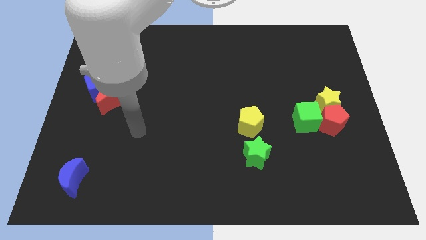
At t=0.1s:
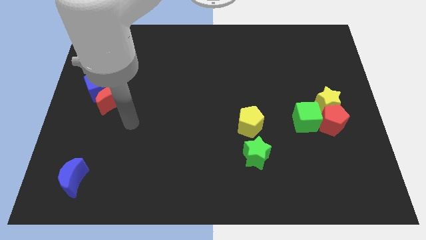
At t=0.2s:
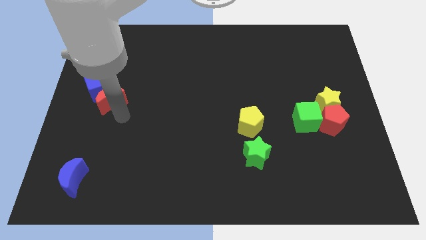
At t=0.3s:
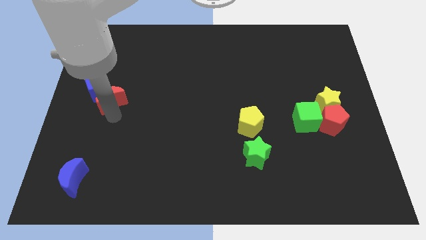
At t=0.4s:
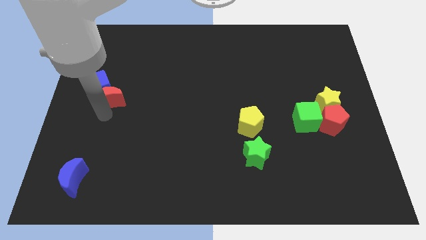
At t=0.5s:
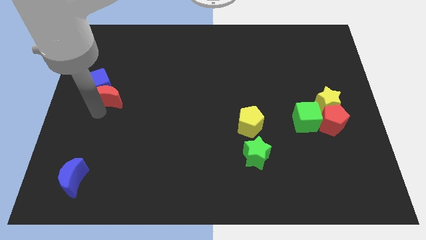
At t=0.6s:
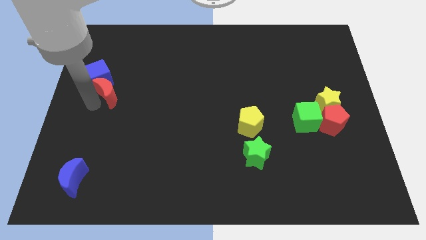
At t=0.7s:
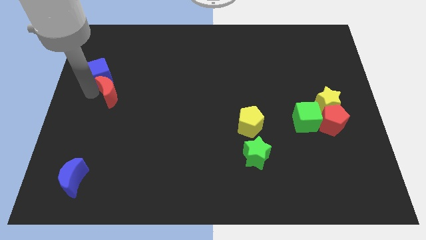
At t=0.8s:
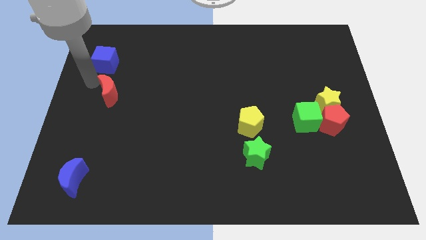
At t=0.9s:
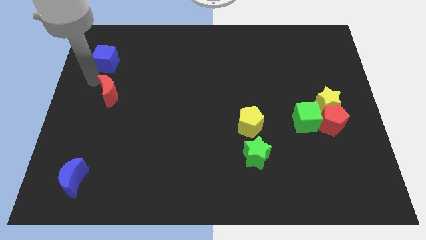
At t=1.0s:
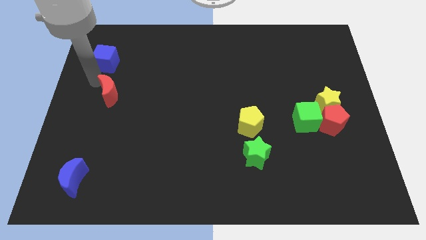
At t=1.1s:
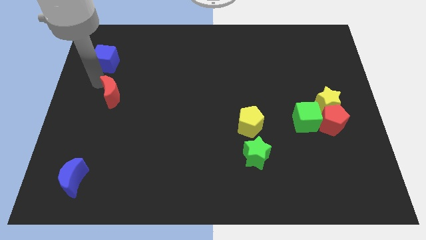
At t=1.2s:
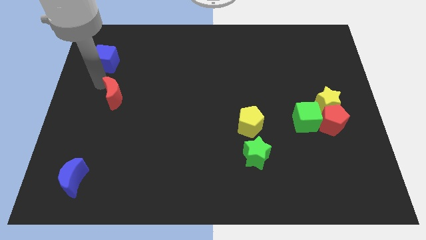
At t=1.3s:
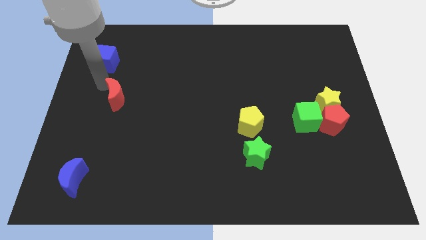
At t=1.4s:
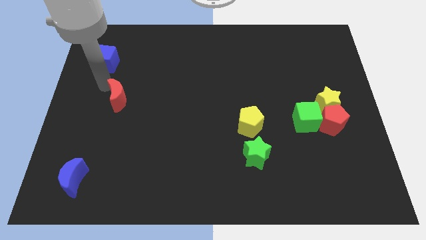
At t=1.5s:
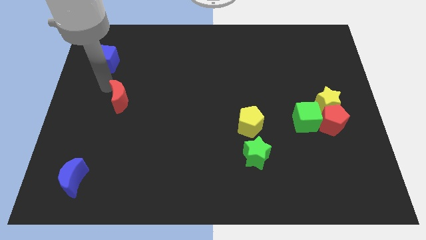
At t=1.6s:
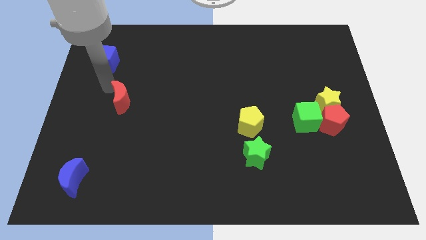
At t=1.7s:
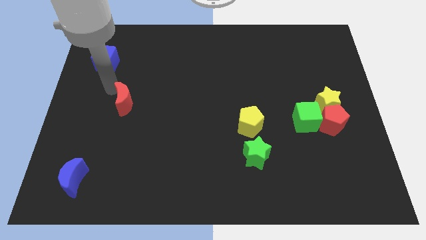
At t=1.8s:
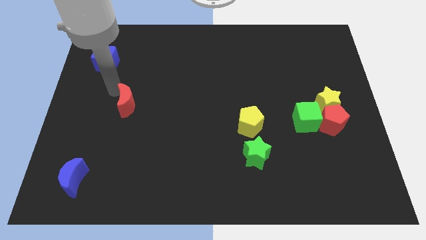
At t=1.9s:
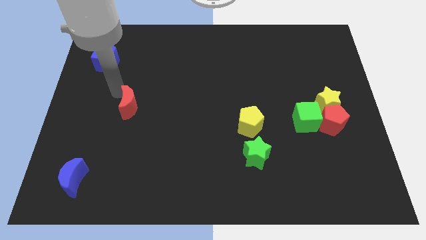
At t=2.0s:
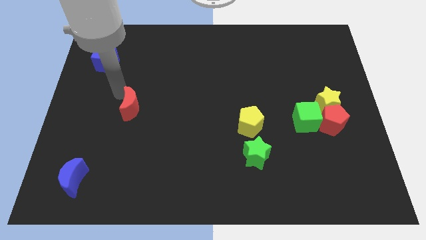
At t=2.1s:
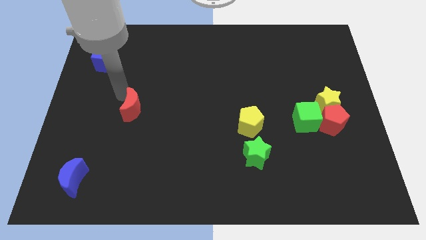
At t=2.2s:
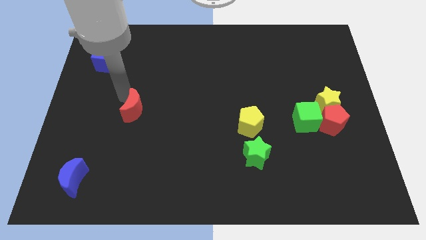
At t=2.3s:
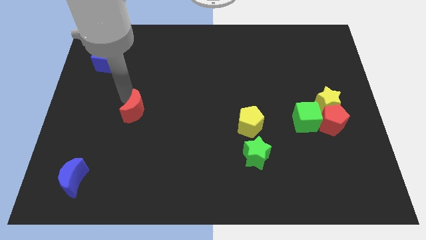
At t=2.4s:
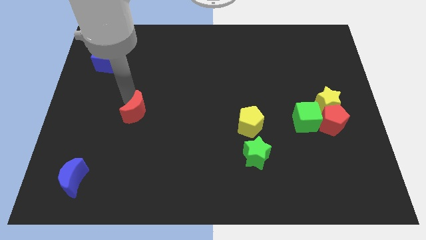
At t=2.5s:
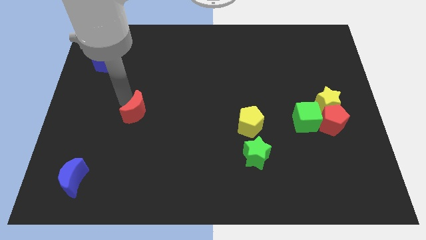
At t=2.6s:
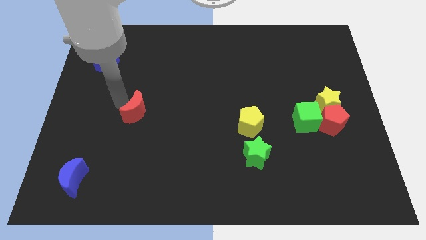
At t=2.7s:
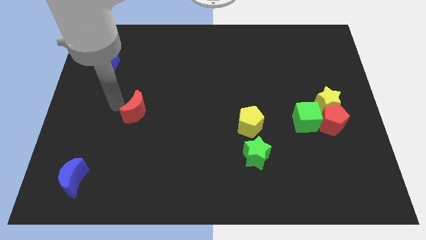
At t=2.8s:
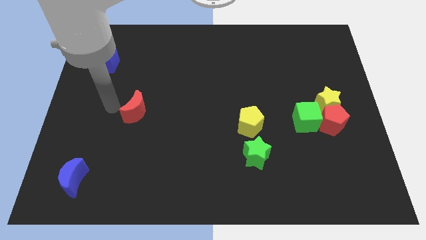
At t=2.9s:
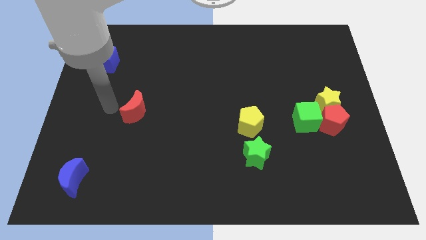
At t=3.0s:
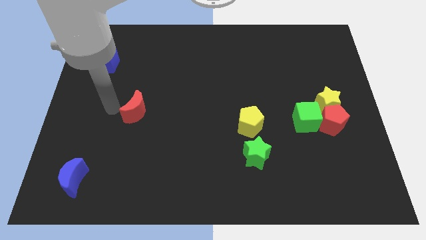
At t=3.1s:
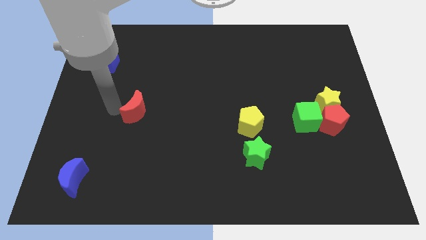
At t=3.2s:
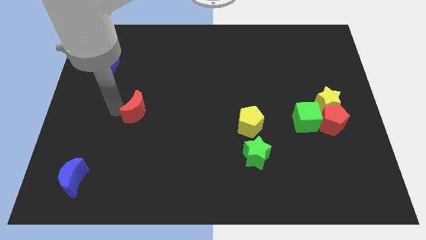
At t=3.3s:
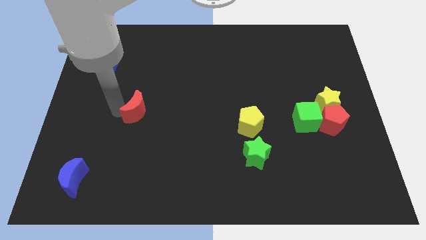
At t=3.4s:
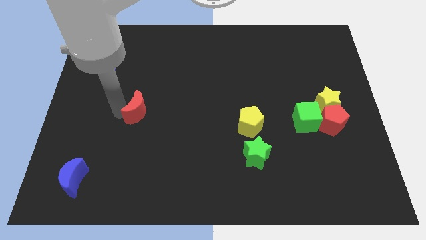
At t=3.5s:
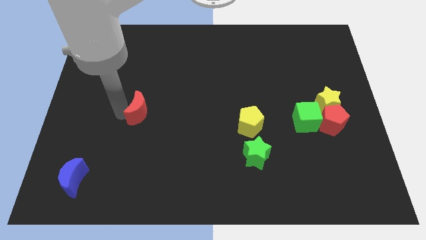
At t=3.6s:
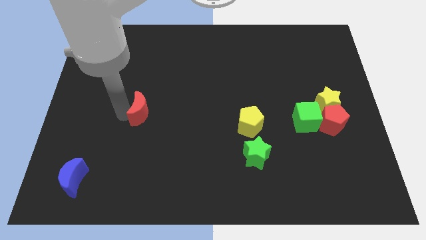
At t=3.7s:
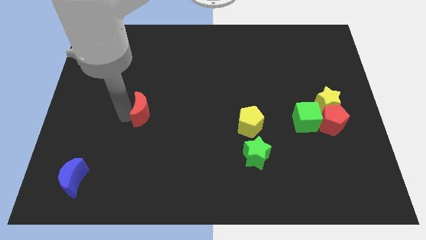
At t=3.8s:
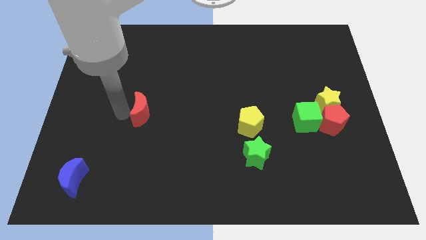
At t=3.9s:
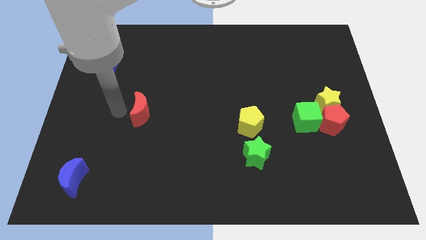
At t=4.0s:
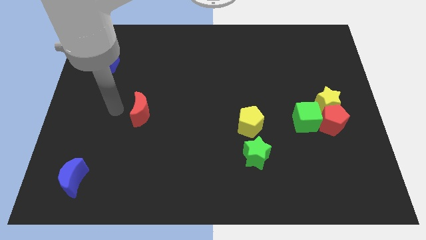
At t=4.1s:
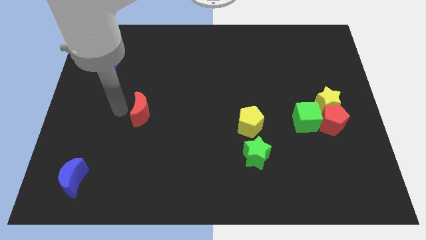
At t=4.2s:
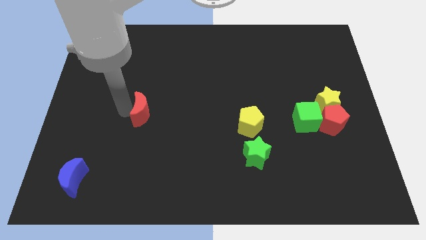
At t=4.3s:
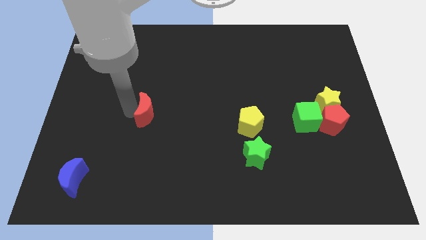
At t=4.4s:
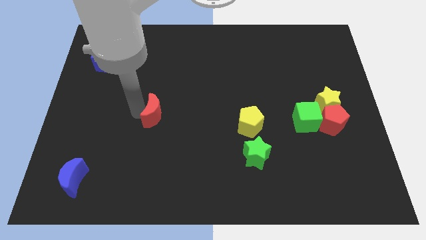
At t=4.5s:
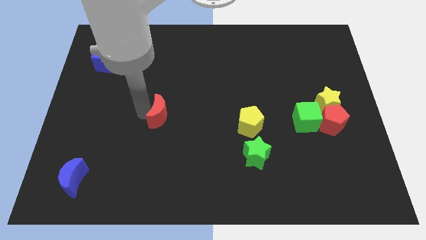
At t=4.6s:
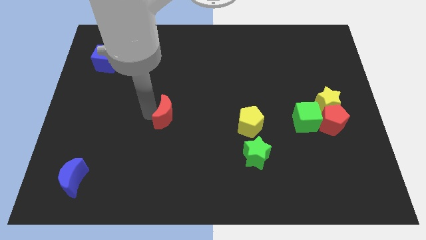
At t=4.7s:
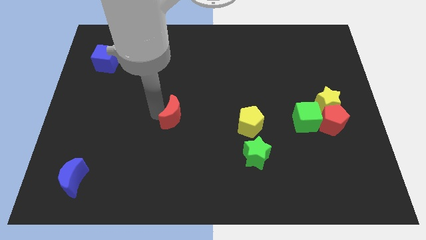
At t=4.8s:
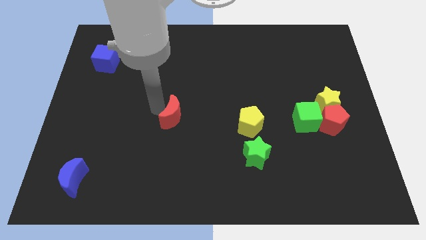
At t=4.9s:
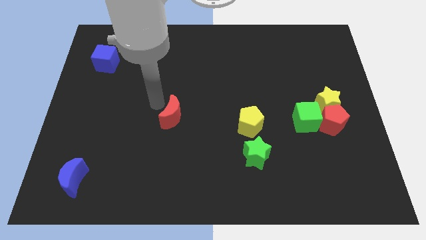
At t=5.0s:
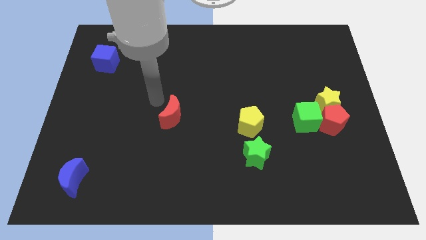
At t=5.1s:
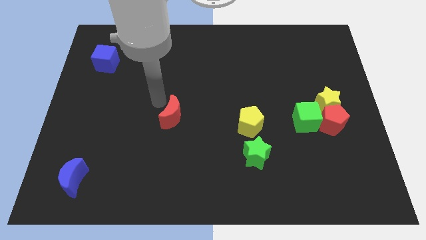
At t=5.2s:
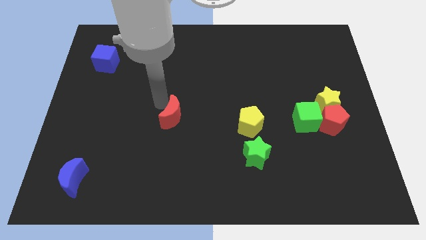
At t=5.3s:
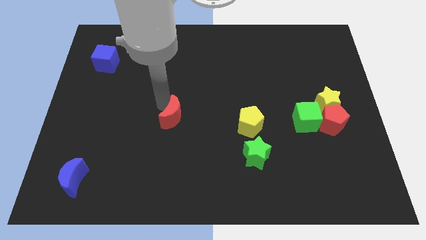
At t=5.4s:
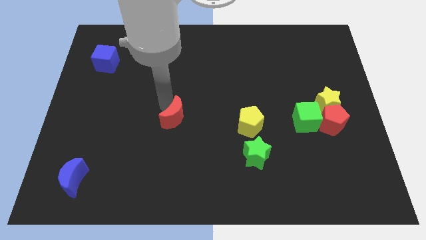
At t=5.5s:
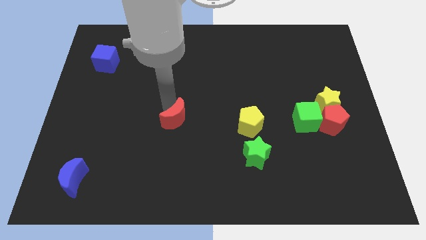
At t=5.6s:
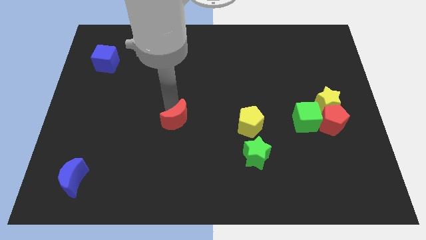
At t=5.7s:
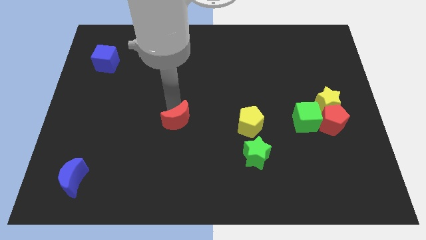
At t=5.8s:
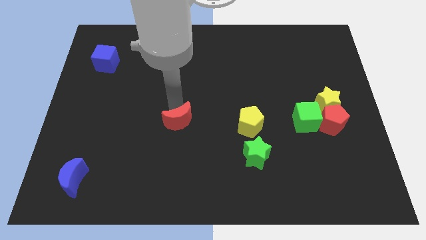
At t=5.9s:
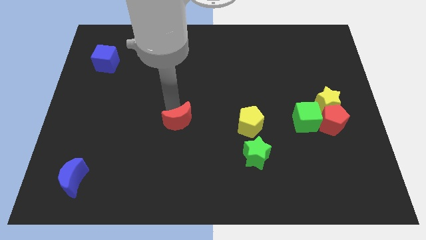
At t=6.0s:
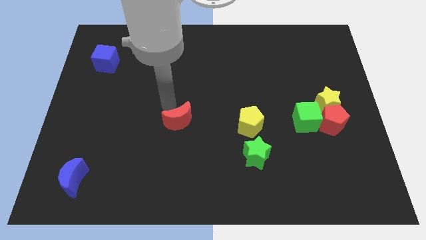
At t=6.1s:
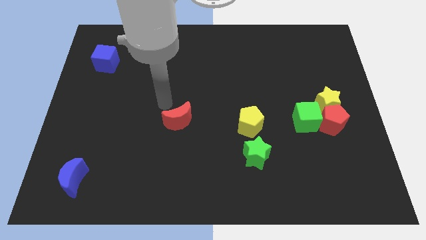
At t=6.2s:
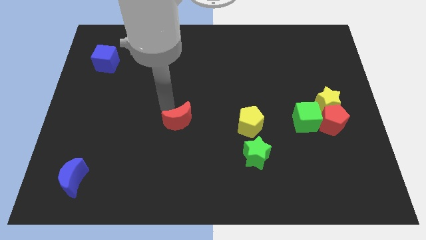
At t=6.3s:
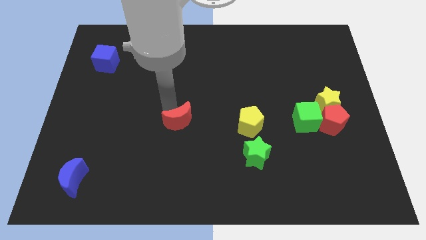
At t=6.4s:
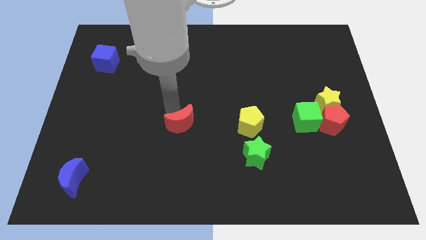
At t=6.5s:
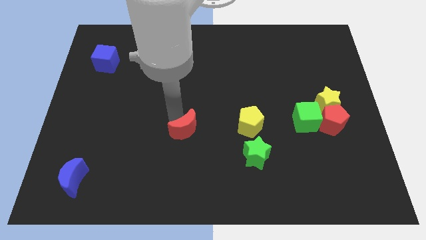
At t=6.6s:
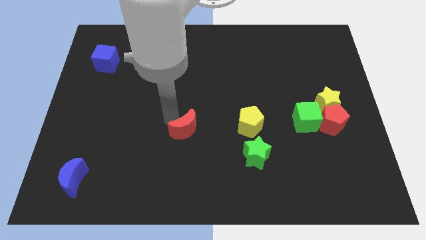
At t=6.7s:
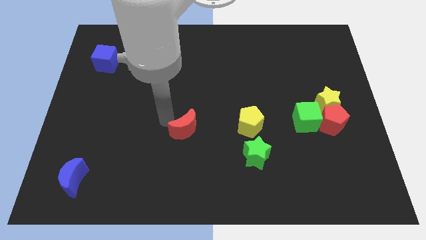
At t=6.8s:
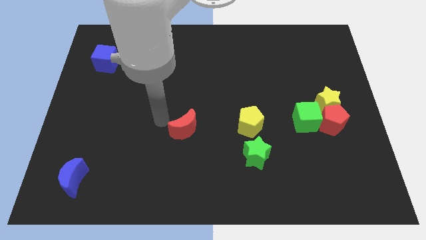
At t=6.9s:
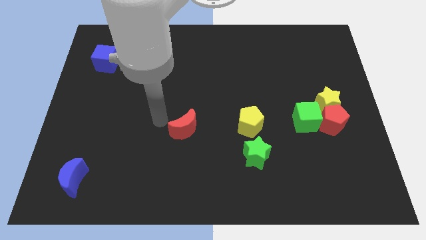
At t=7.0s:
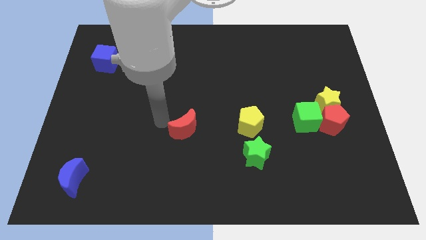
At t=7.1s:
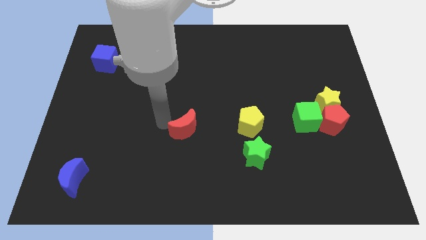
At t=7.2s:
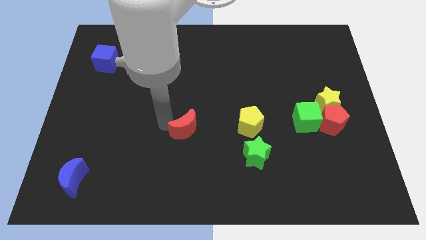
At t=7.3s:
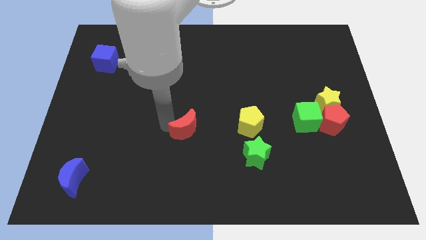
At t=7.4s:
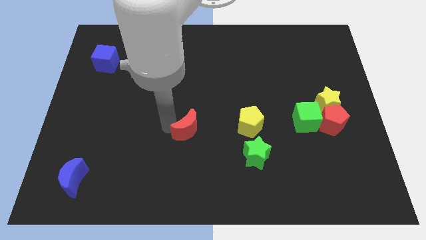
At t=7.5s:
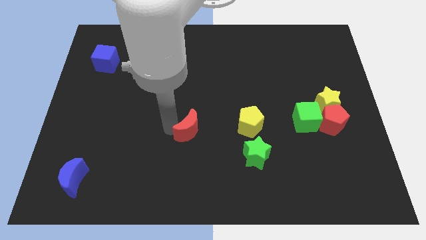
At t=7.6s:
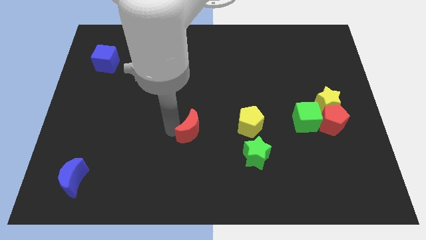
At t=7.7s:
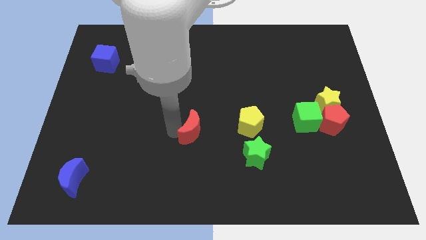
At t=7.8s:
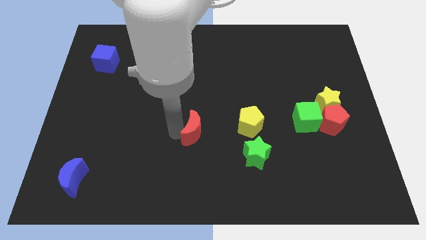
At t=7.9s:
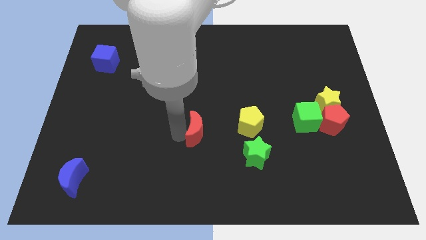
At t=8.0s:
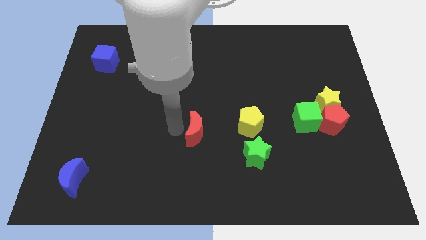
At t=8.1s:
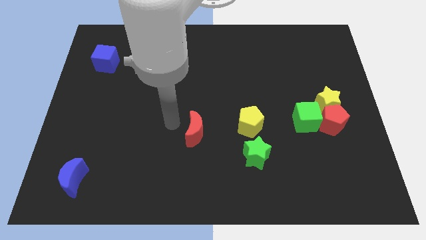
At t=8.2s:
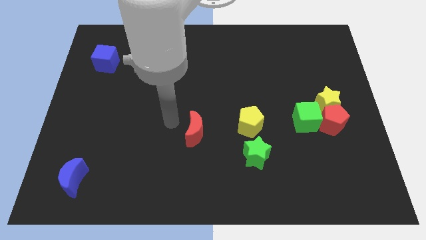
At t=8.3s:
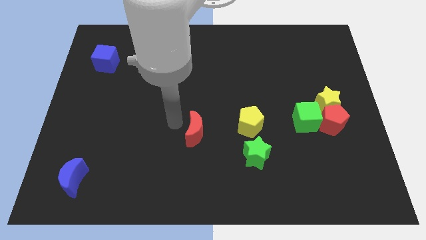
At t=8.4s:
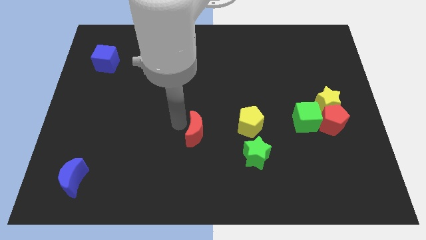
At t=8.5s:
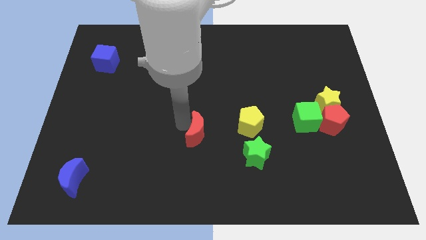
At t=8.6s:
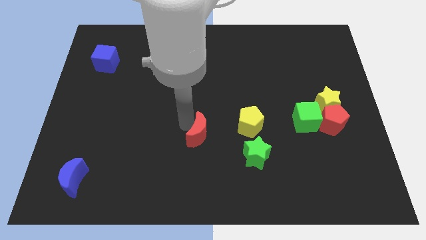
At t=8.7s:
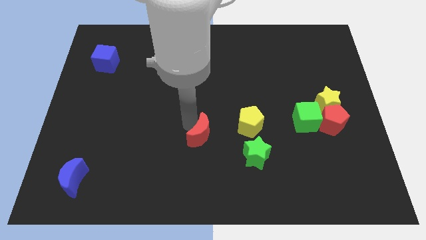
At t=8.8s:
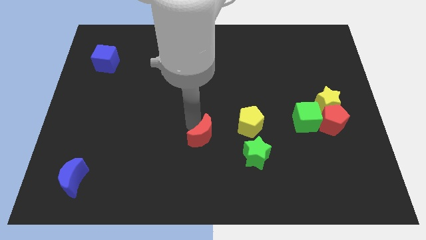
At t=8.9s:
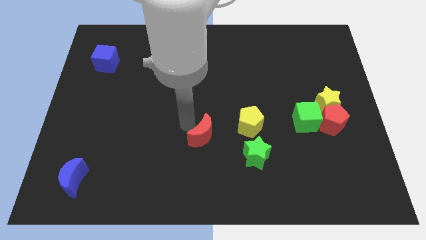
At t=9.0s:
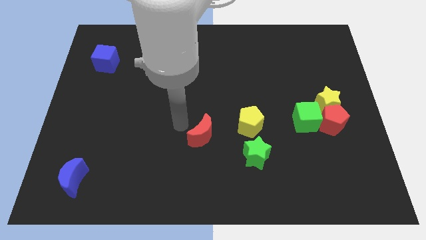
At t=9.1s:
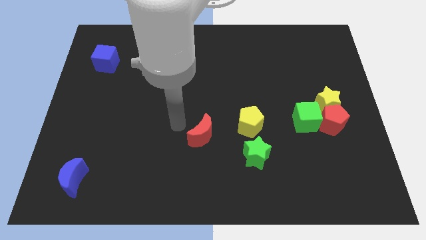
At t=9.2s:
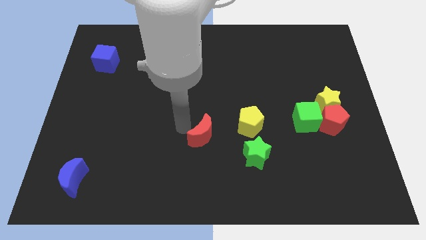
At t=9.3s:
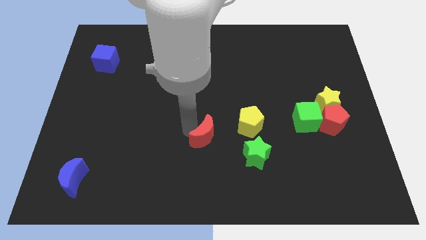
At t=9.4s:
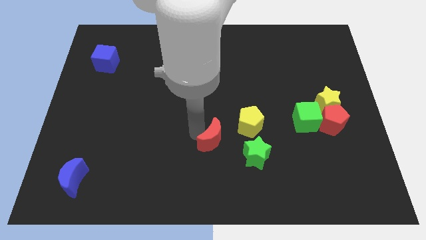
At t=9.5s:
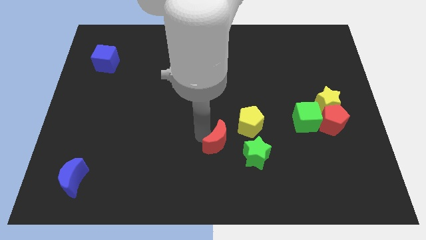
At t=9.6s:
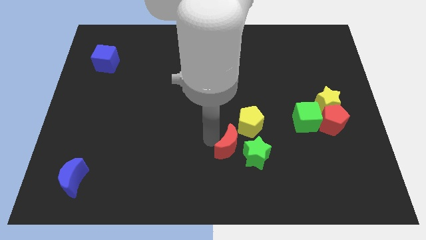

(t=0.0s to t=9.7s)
push the red moon to the green star
